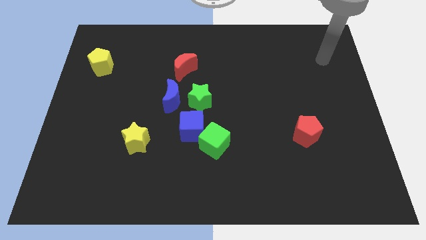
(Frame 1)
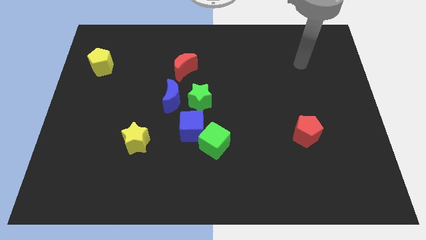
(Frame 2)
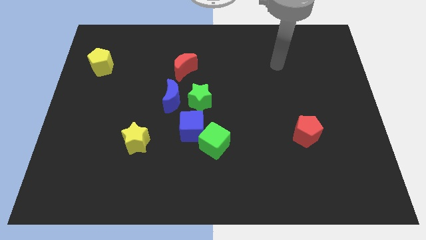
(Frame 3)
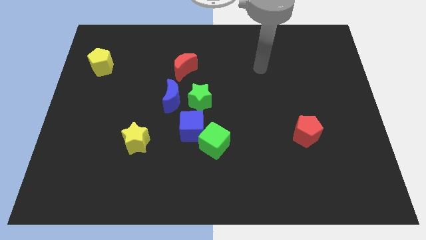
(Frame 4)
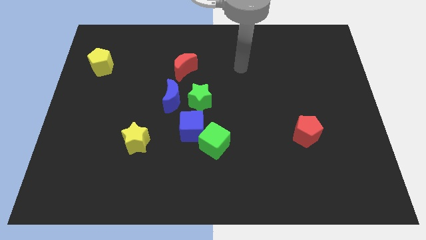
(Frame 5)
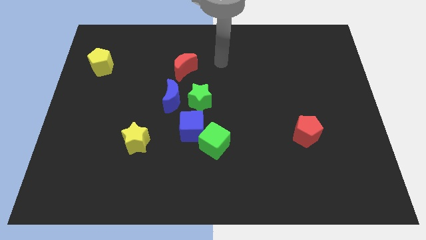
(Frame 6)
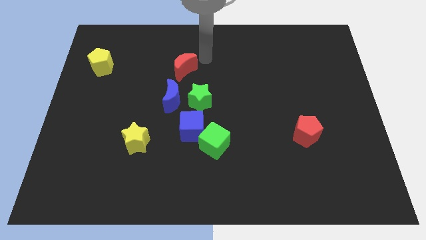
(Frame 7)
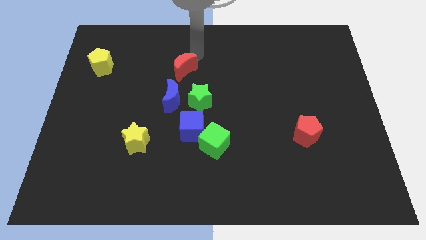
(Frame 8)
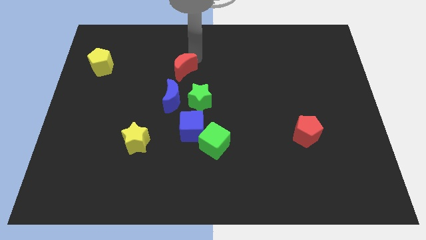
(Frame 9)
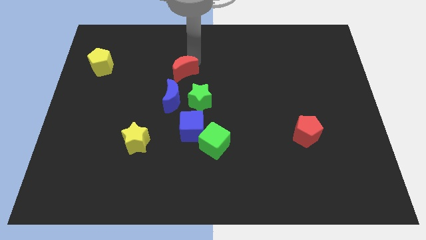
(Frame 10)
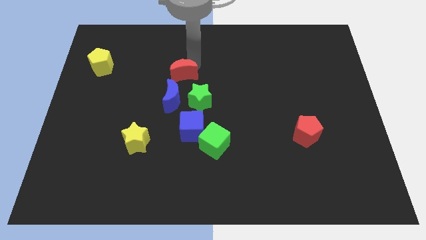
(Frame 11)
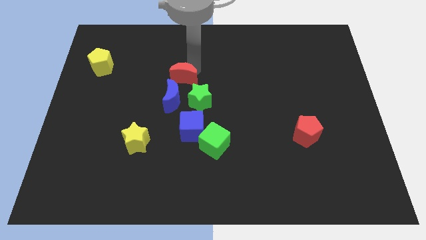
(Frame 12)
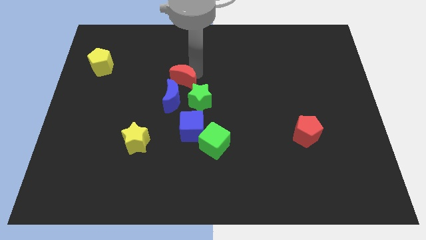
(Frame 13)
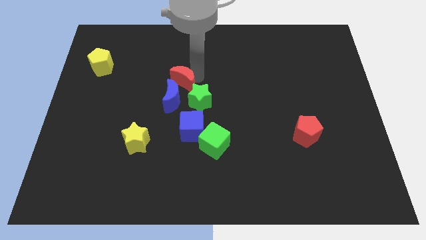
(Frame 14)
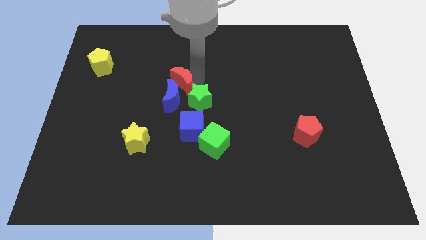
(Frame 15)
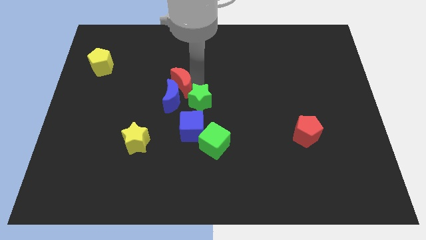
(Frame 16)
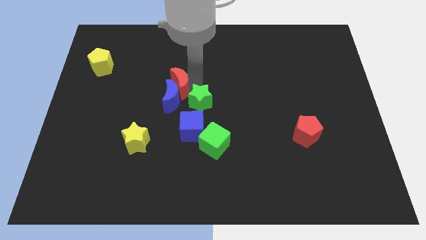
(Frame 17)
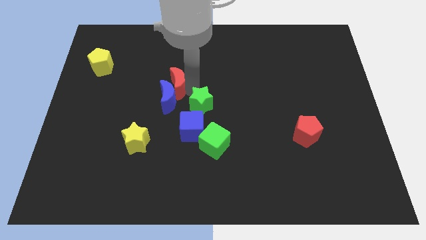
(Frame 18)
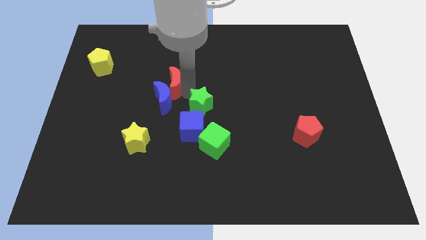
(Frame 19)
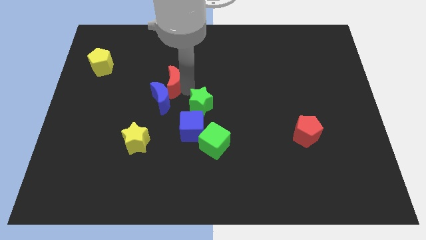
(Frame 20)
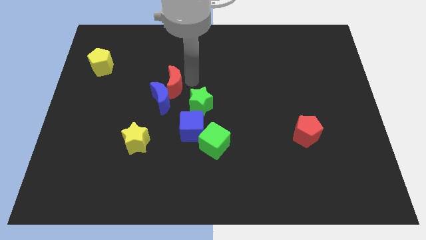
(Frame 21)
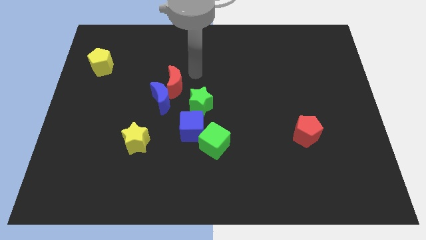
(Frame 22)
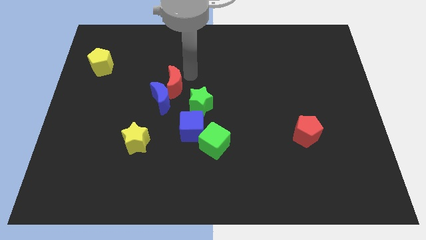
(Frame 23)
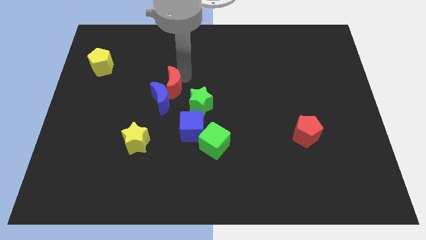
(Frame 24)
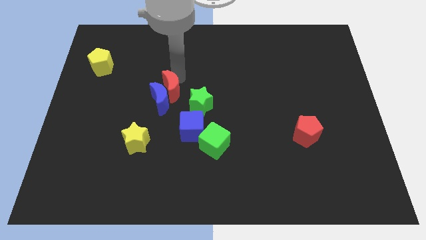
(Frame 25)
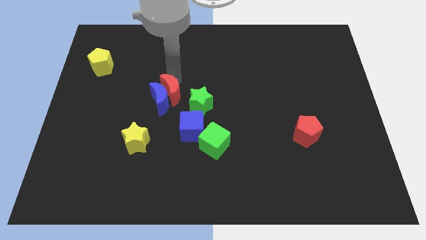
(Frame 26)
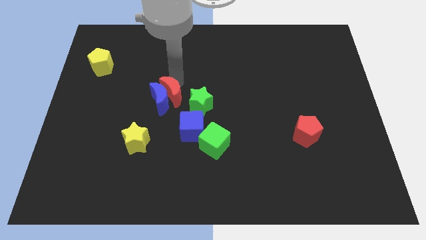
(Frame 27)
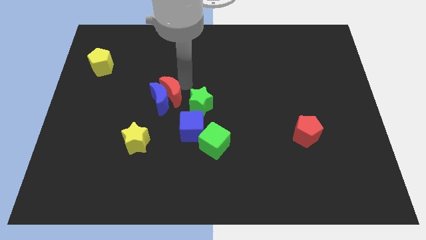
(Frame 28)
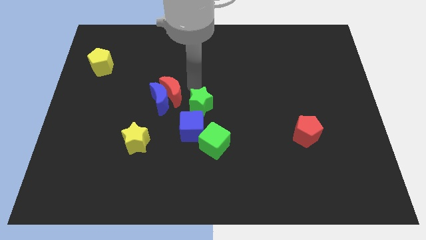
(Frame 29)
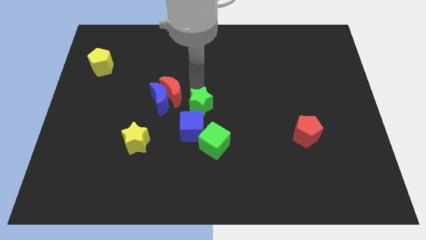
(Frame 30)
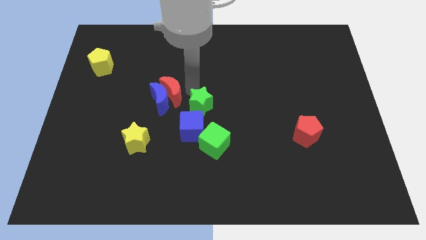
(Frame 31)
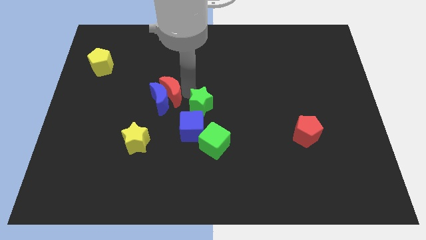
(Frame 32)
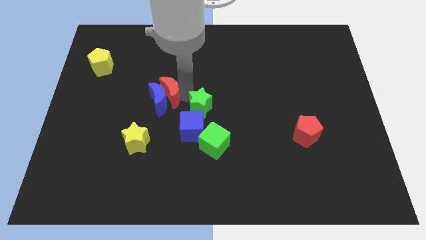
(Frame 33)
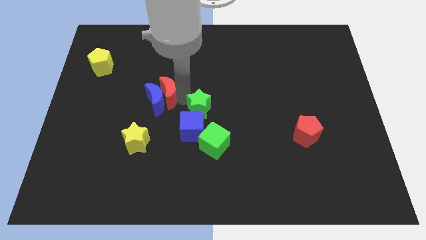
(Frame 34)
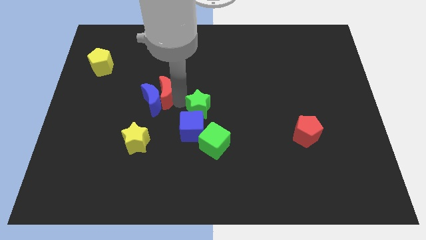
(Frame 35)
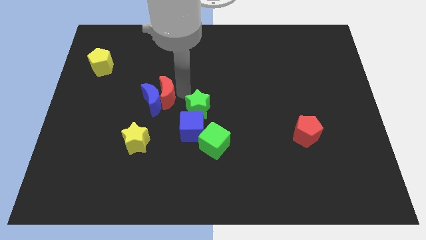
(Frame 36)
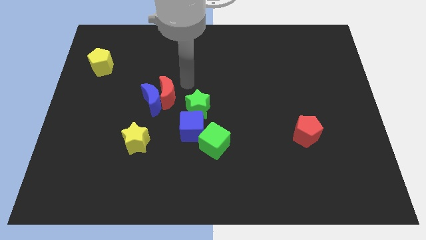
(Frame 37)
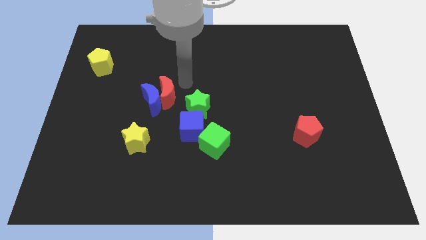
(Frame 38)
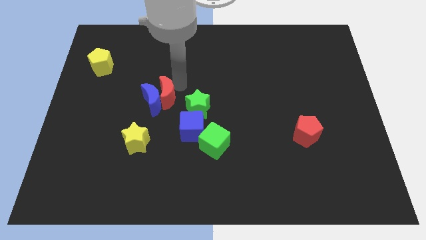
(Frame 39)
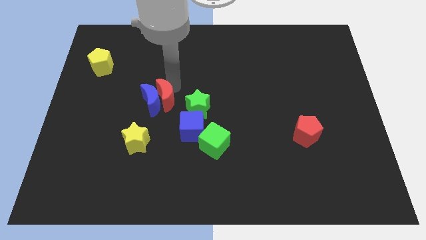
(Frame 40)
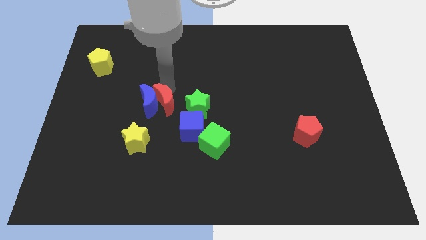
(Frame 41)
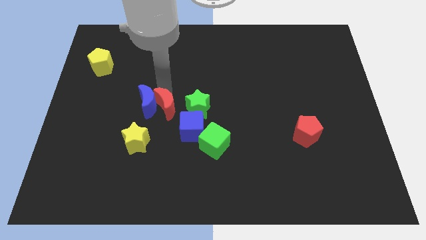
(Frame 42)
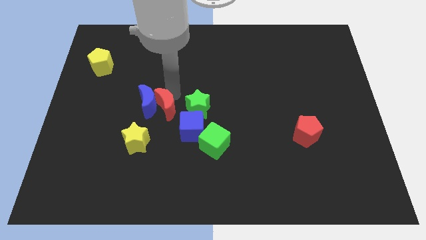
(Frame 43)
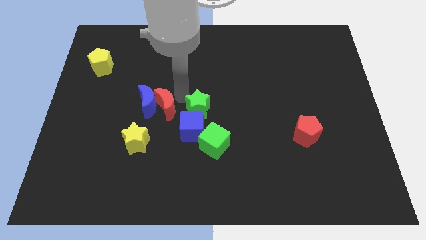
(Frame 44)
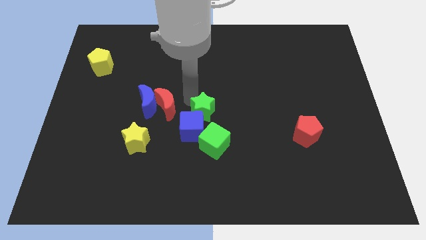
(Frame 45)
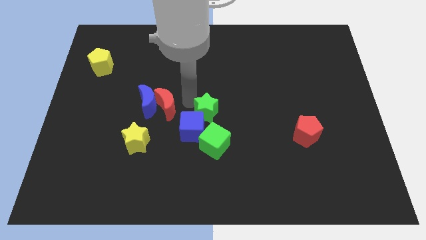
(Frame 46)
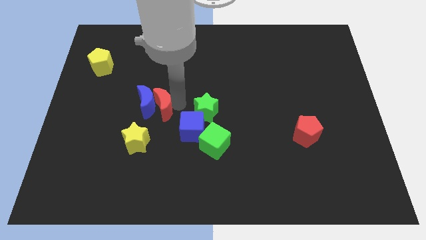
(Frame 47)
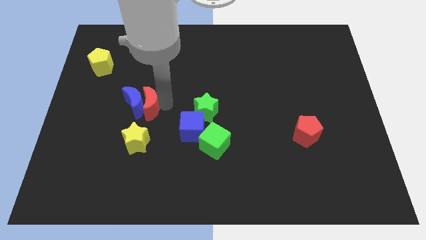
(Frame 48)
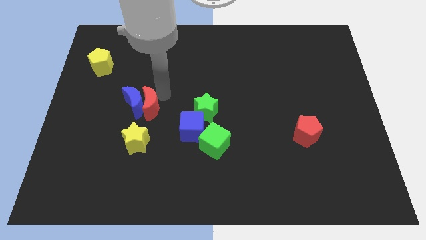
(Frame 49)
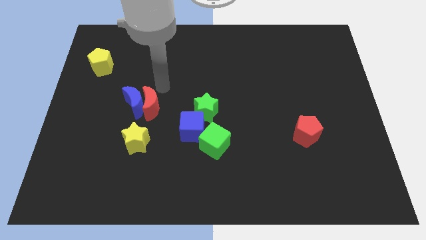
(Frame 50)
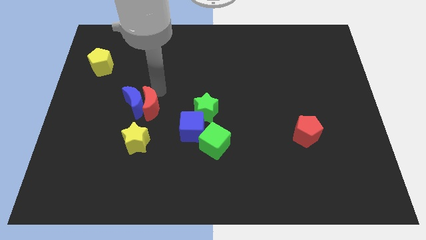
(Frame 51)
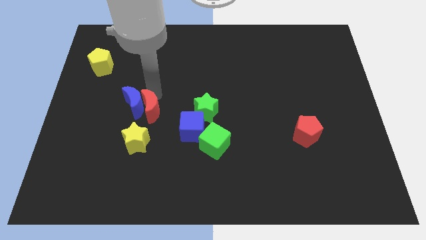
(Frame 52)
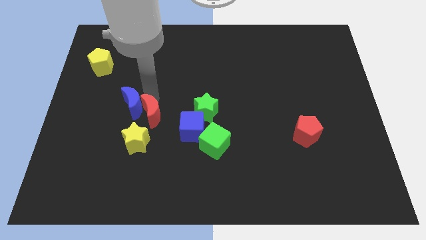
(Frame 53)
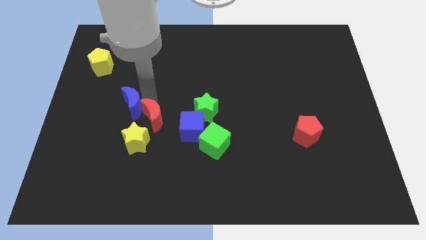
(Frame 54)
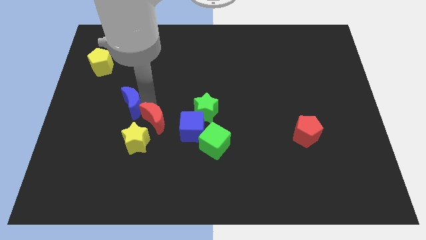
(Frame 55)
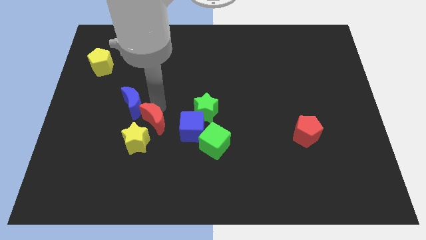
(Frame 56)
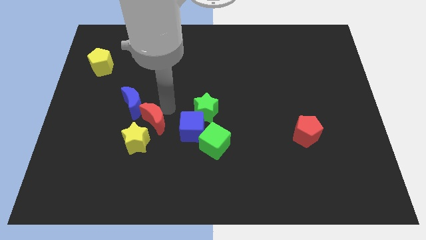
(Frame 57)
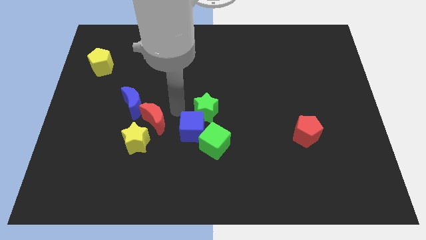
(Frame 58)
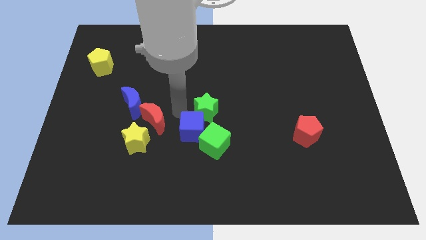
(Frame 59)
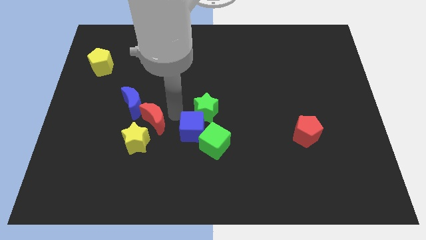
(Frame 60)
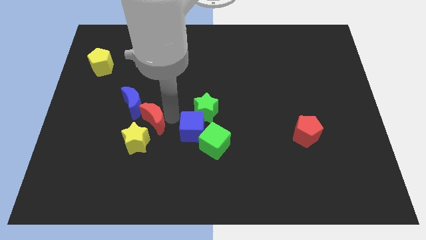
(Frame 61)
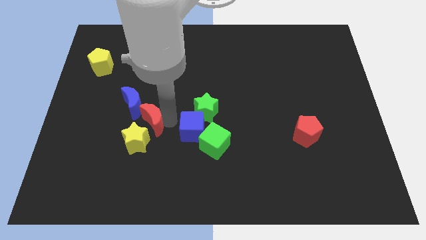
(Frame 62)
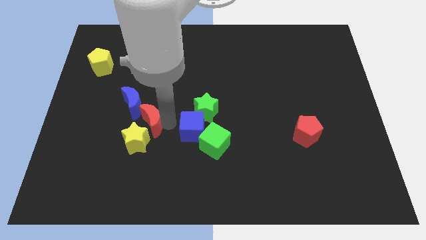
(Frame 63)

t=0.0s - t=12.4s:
push the red moon to the yellow star

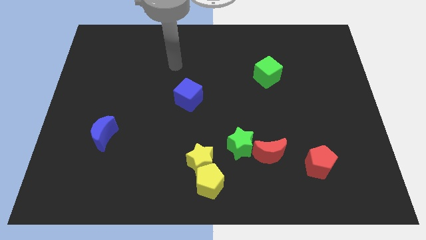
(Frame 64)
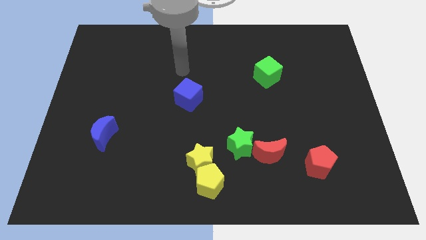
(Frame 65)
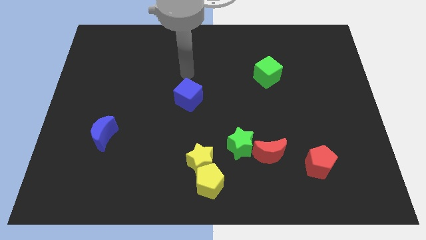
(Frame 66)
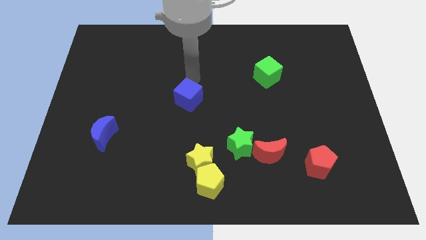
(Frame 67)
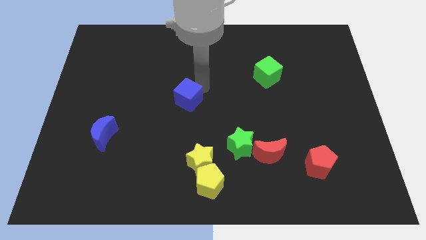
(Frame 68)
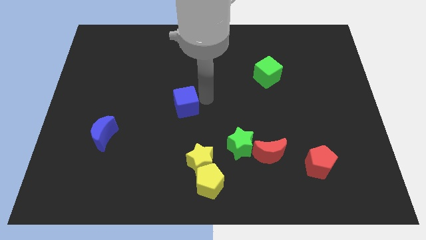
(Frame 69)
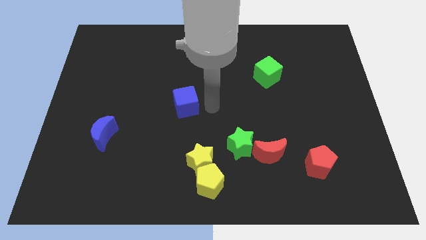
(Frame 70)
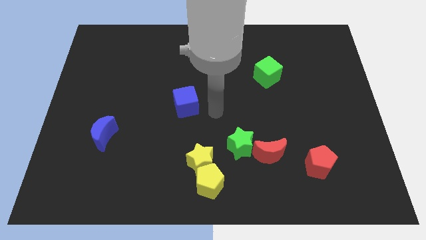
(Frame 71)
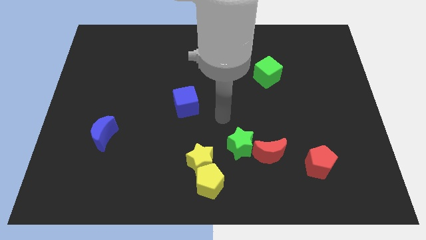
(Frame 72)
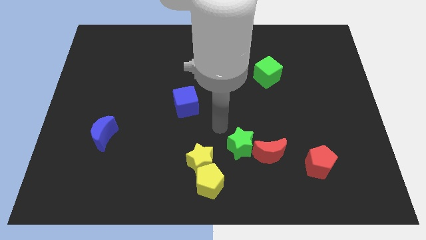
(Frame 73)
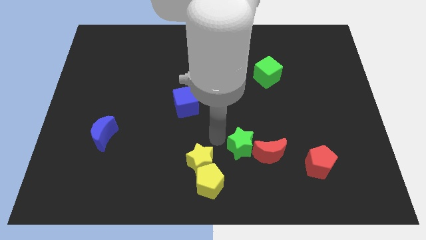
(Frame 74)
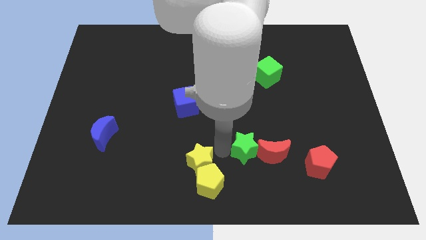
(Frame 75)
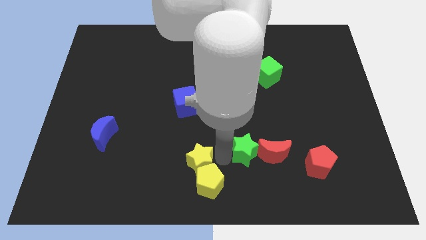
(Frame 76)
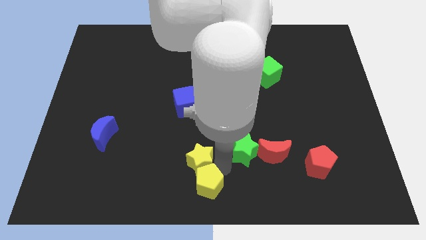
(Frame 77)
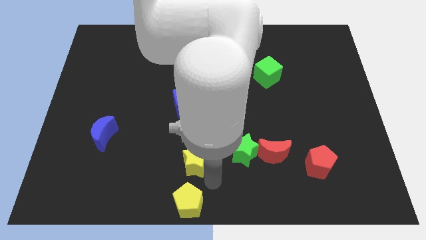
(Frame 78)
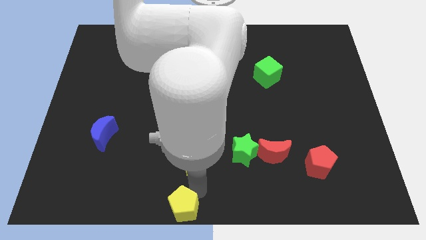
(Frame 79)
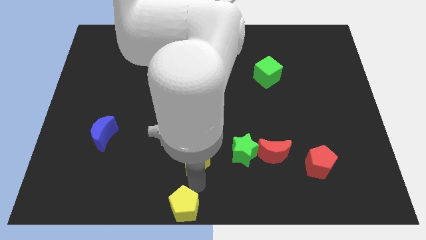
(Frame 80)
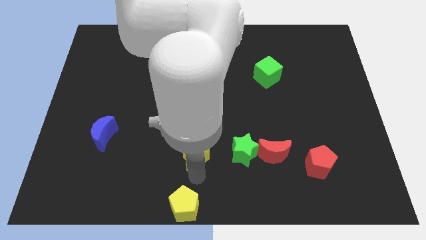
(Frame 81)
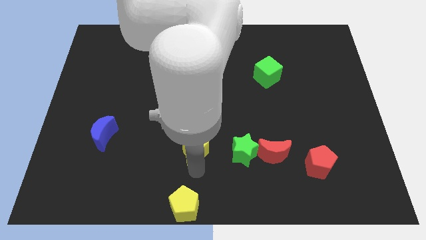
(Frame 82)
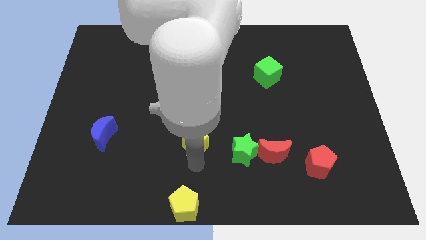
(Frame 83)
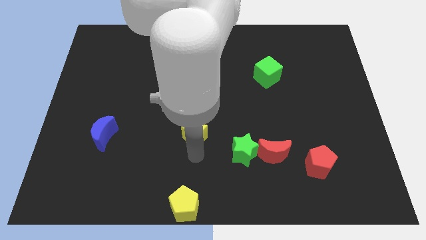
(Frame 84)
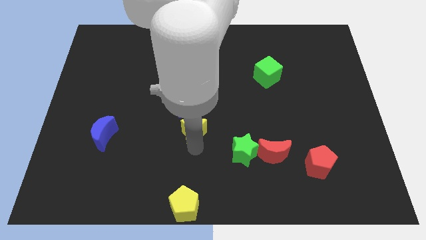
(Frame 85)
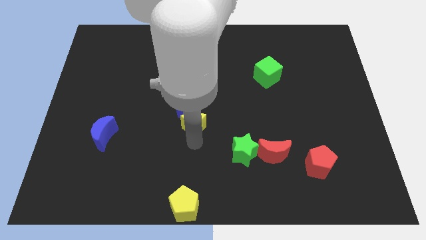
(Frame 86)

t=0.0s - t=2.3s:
push the yellow star towards the blue cube
